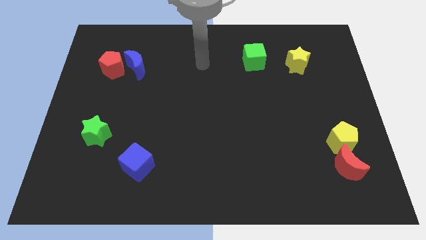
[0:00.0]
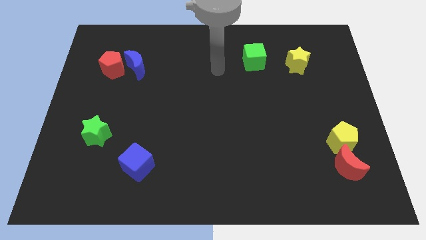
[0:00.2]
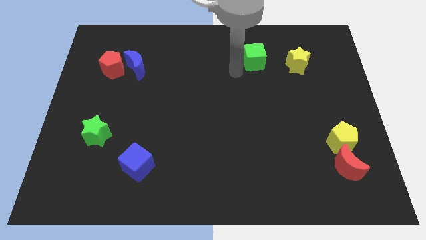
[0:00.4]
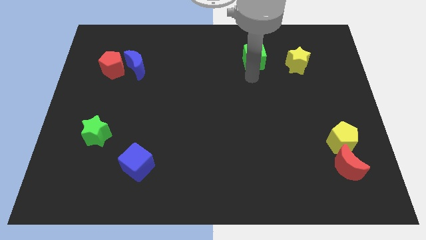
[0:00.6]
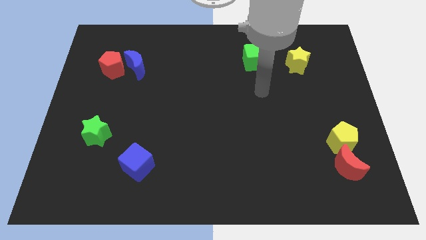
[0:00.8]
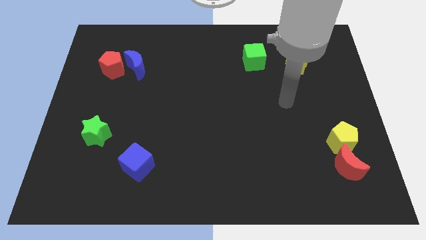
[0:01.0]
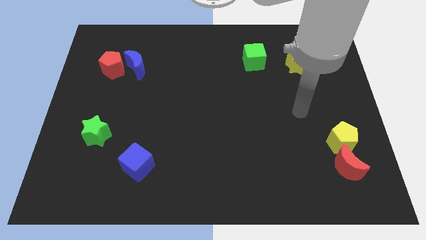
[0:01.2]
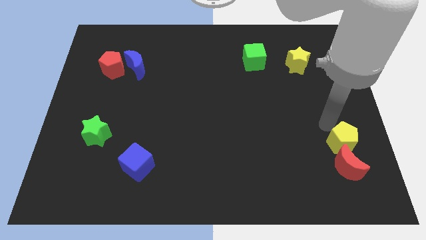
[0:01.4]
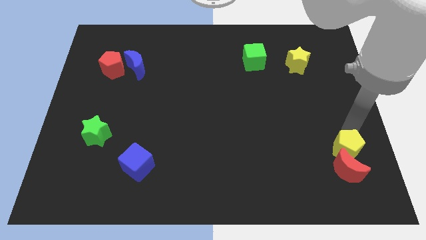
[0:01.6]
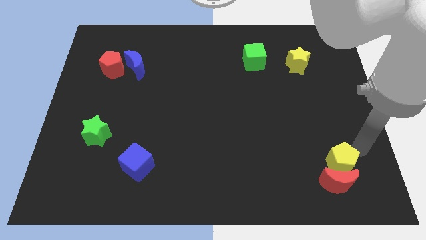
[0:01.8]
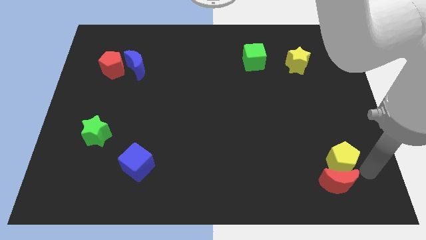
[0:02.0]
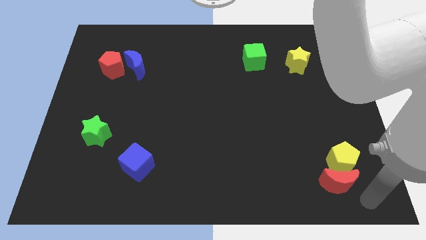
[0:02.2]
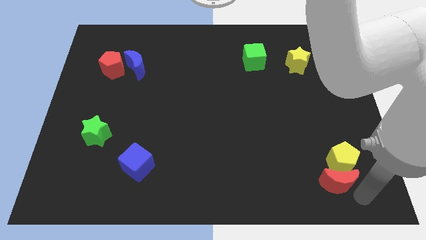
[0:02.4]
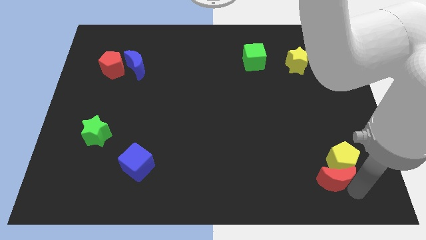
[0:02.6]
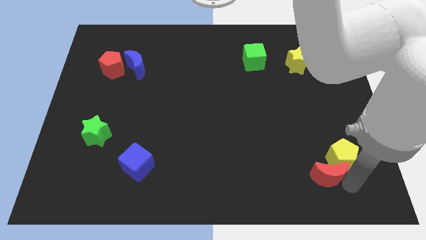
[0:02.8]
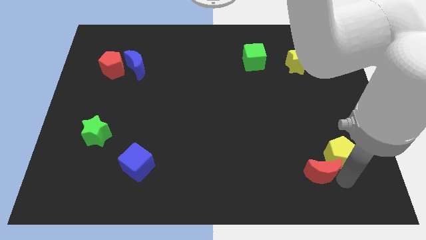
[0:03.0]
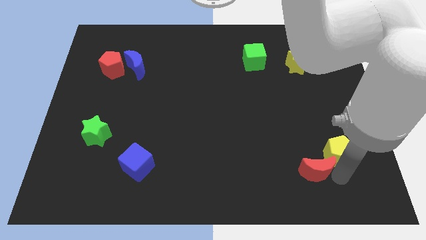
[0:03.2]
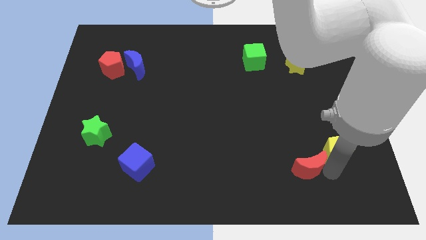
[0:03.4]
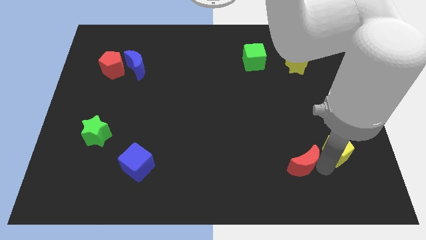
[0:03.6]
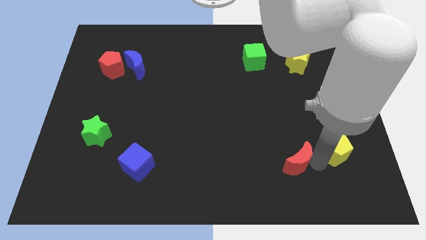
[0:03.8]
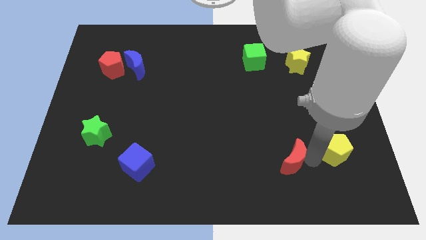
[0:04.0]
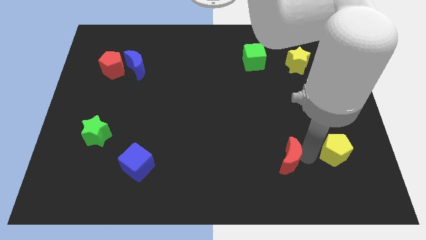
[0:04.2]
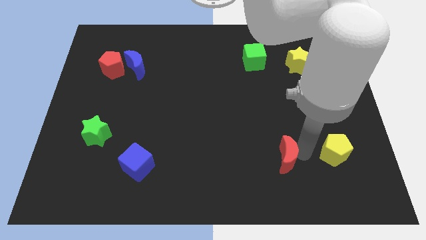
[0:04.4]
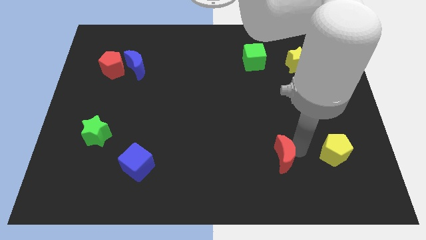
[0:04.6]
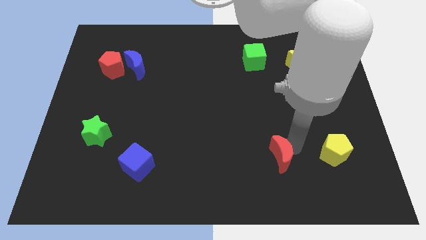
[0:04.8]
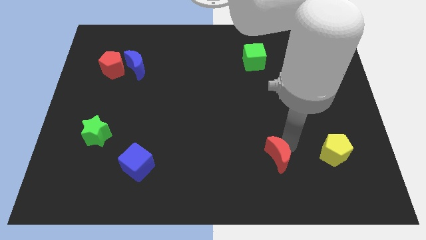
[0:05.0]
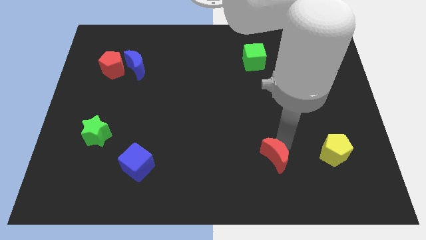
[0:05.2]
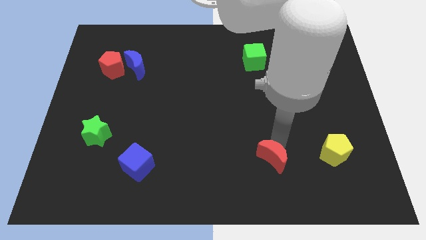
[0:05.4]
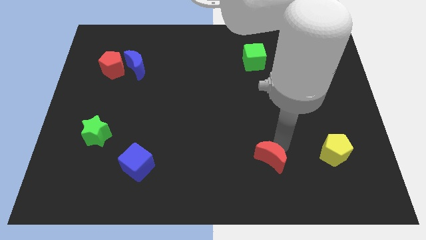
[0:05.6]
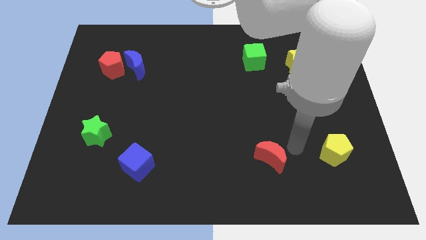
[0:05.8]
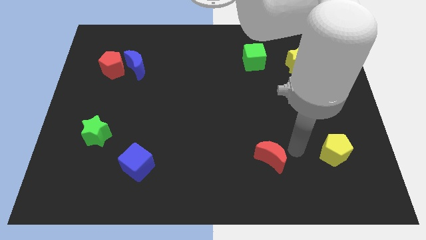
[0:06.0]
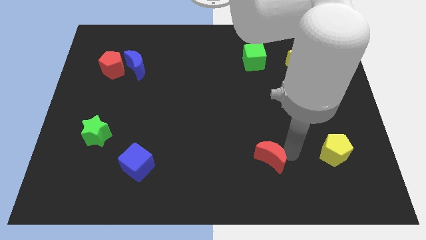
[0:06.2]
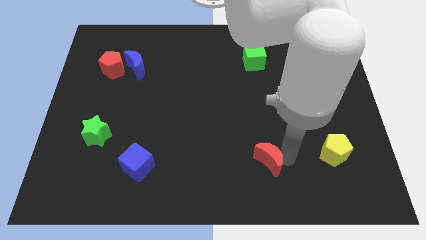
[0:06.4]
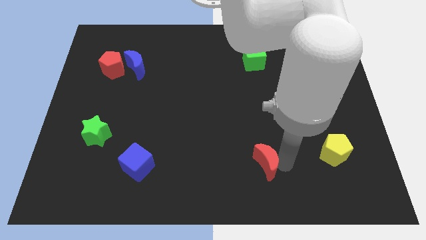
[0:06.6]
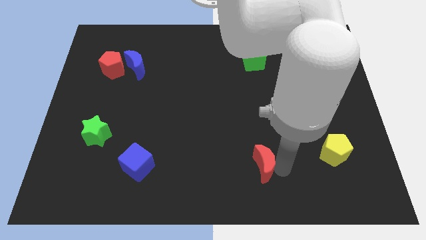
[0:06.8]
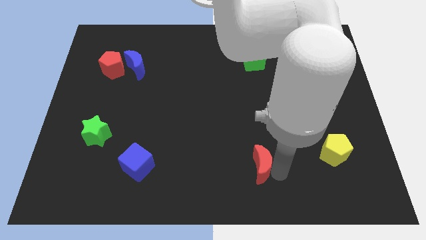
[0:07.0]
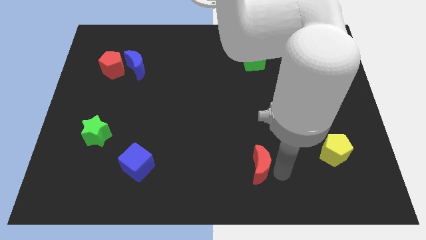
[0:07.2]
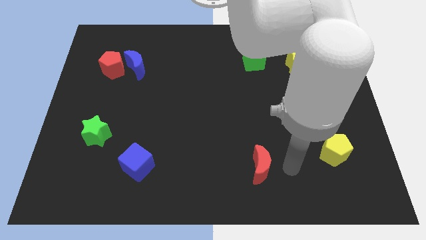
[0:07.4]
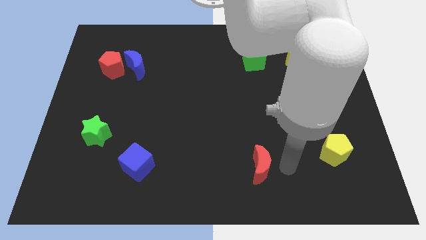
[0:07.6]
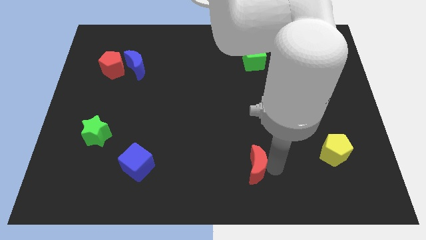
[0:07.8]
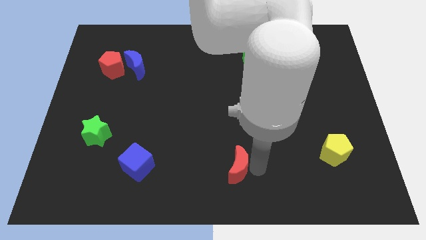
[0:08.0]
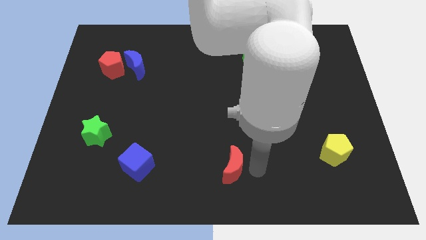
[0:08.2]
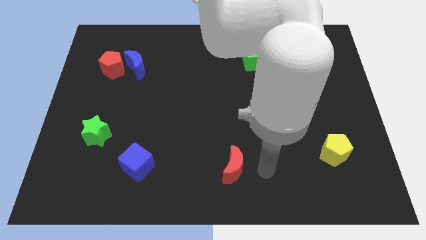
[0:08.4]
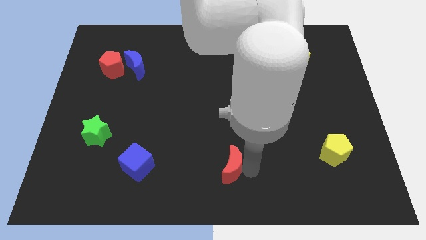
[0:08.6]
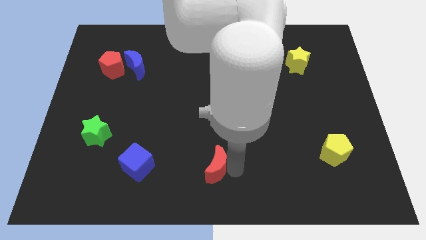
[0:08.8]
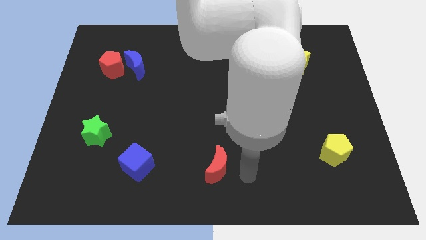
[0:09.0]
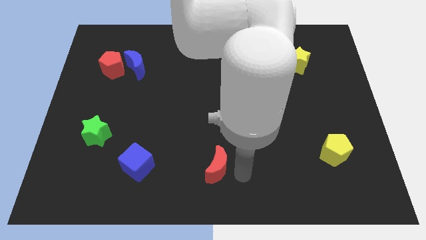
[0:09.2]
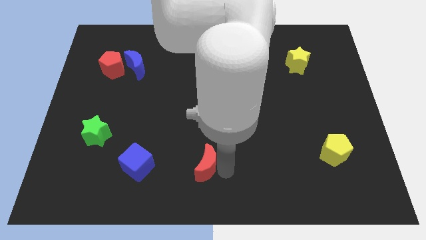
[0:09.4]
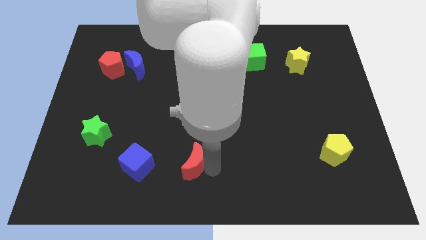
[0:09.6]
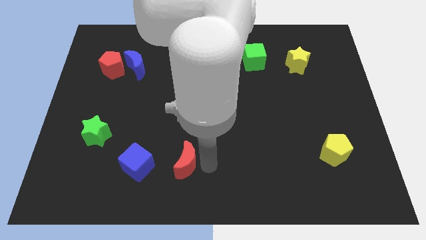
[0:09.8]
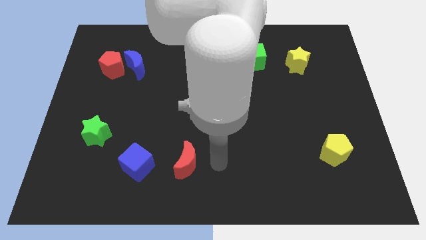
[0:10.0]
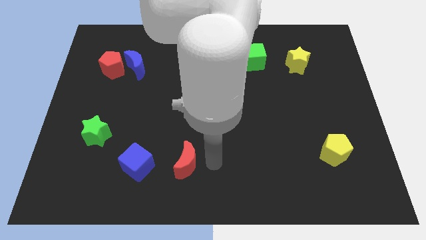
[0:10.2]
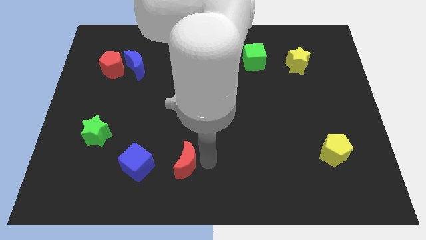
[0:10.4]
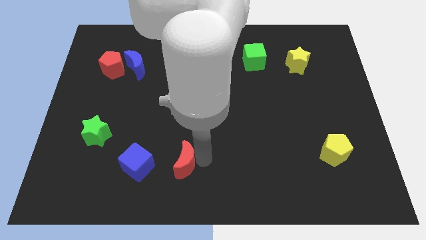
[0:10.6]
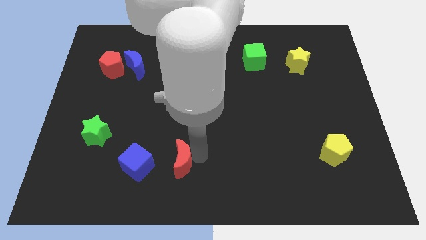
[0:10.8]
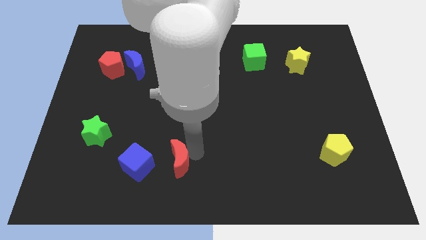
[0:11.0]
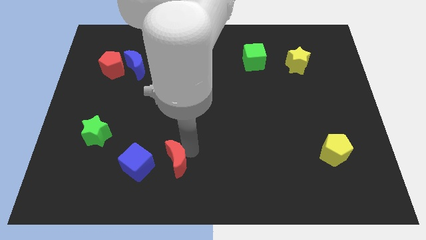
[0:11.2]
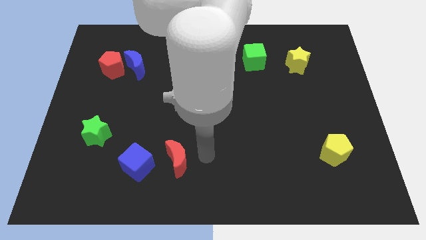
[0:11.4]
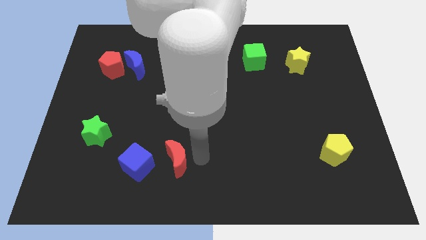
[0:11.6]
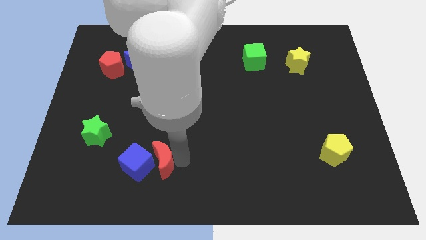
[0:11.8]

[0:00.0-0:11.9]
push the red moon towards the blue cube
